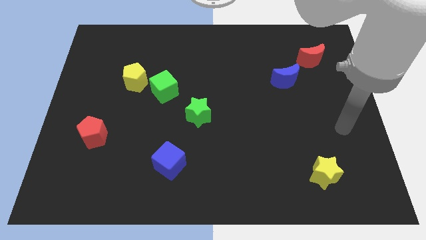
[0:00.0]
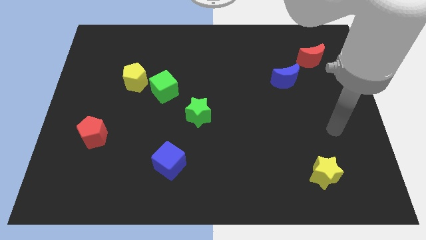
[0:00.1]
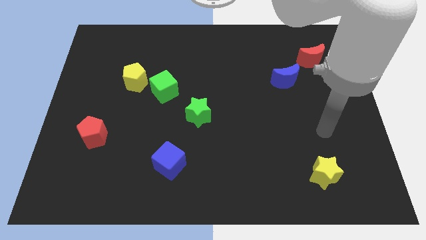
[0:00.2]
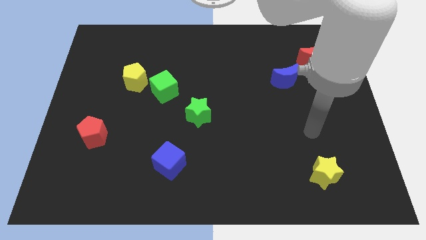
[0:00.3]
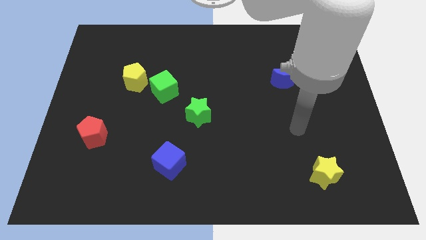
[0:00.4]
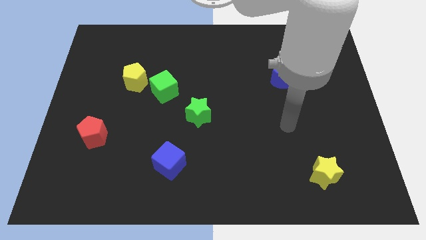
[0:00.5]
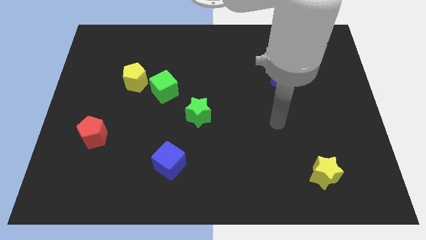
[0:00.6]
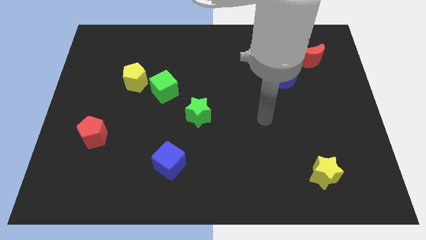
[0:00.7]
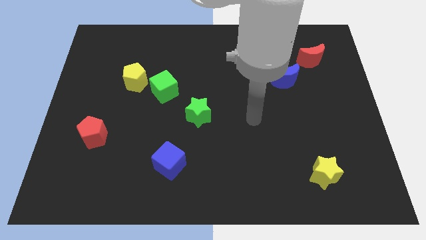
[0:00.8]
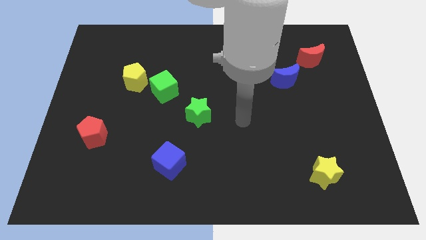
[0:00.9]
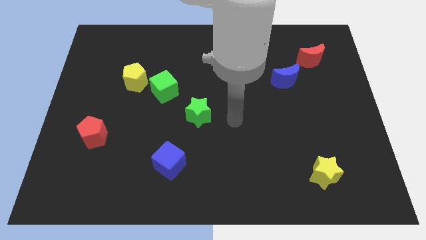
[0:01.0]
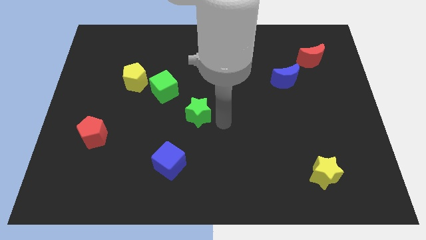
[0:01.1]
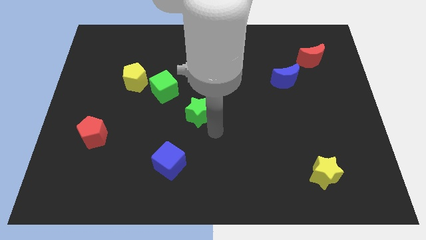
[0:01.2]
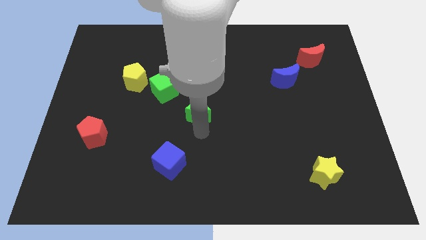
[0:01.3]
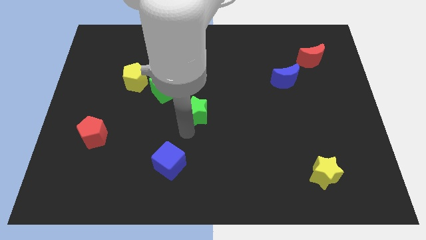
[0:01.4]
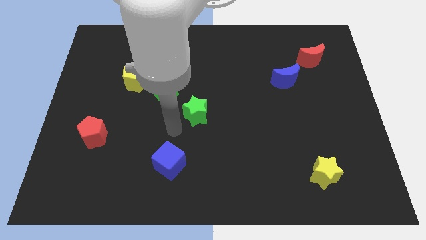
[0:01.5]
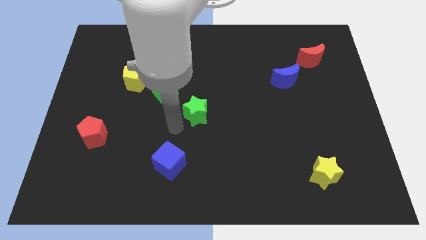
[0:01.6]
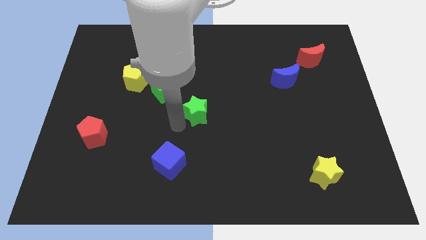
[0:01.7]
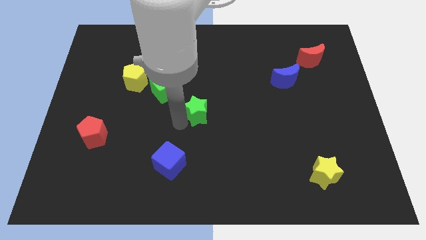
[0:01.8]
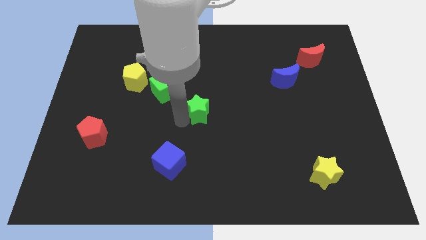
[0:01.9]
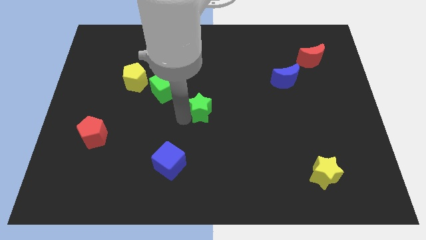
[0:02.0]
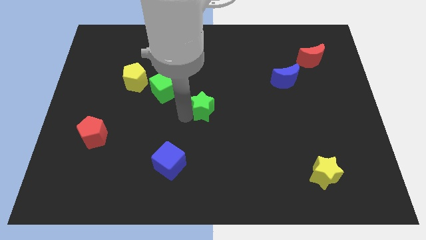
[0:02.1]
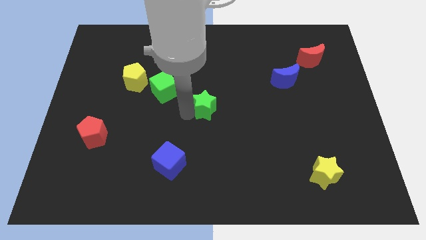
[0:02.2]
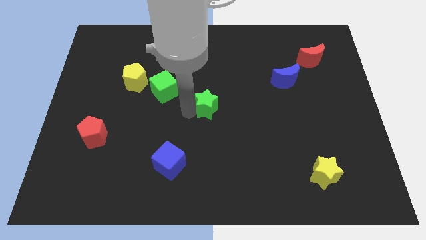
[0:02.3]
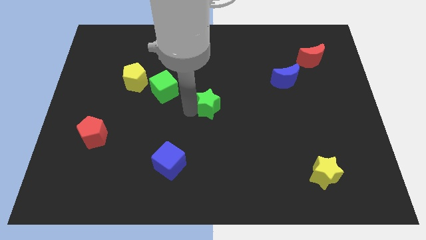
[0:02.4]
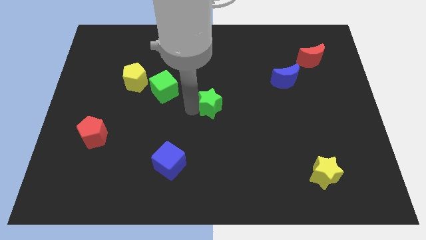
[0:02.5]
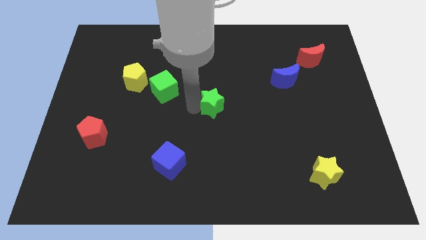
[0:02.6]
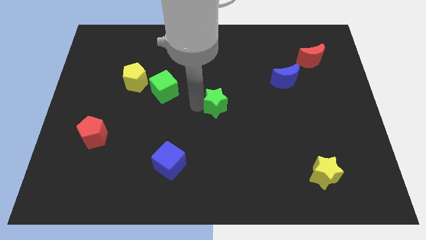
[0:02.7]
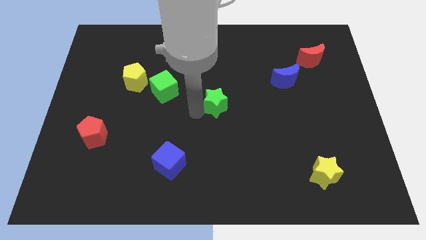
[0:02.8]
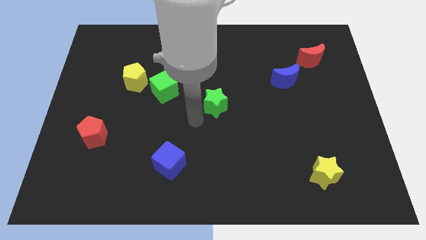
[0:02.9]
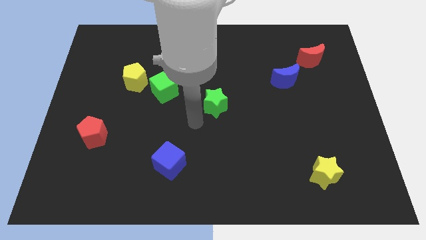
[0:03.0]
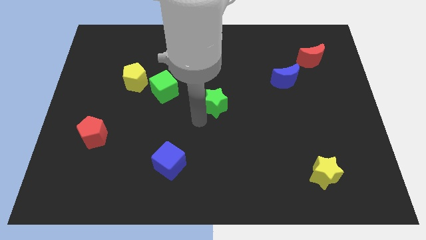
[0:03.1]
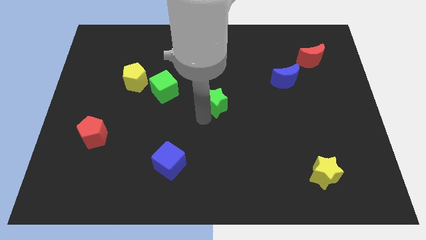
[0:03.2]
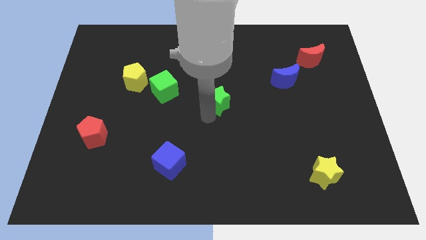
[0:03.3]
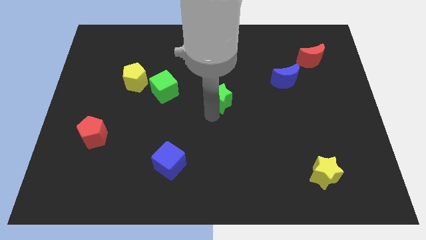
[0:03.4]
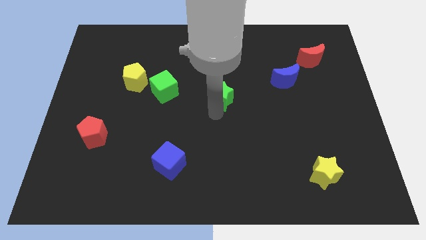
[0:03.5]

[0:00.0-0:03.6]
move the green star a little upwards and then right

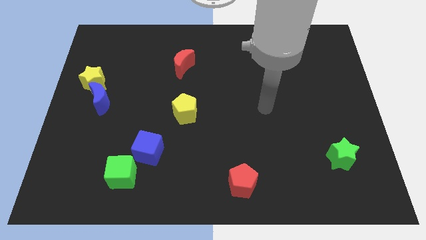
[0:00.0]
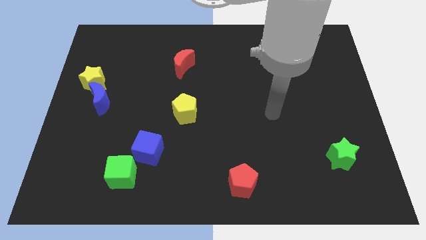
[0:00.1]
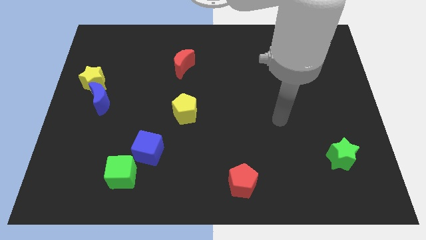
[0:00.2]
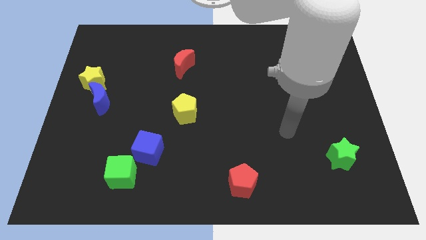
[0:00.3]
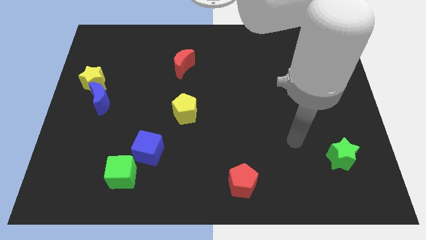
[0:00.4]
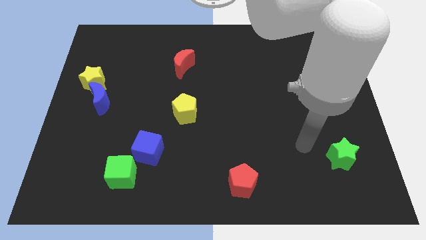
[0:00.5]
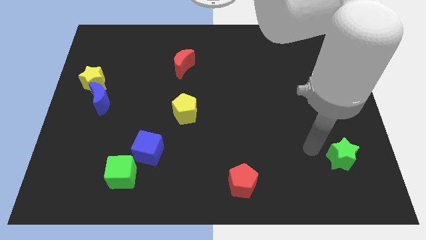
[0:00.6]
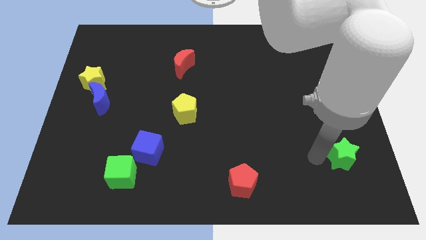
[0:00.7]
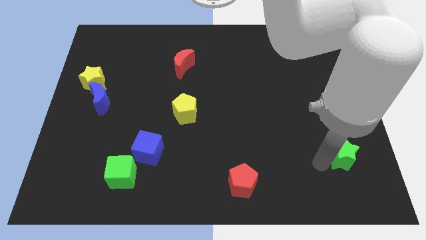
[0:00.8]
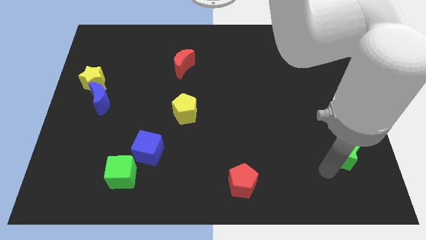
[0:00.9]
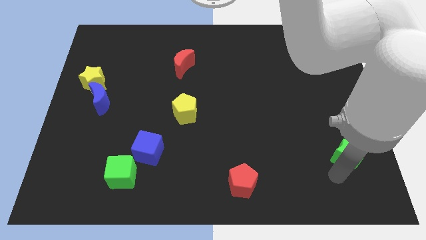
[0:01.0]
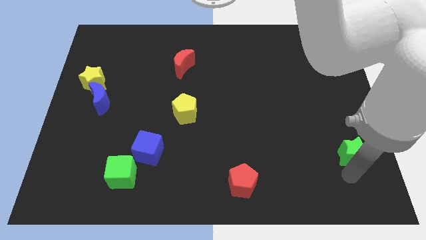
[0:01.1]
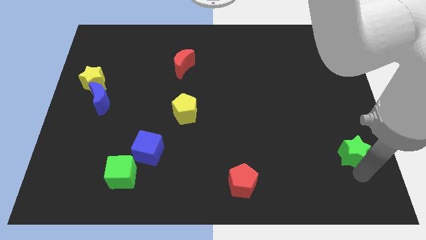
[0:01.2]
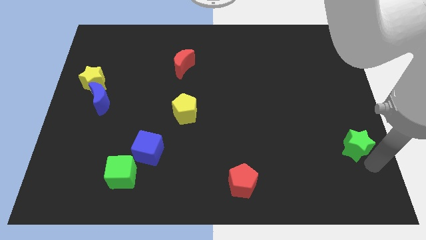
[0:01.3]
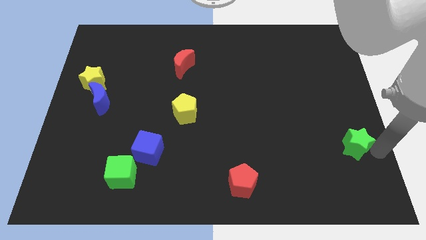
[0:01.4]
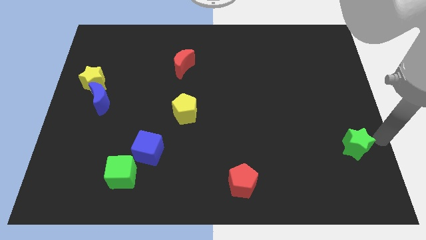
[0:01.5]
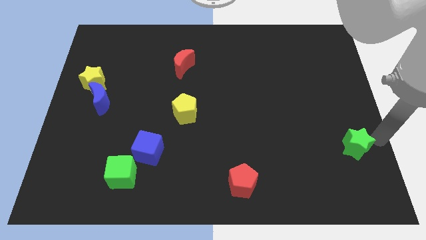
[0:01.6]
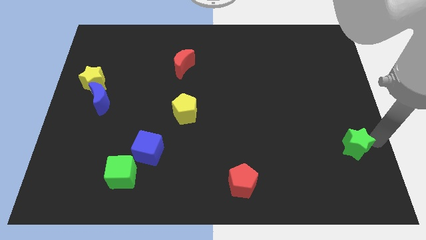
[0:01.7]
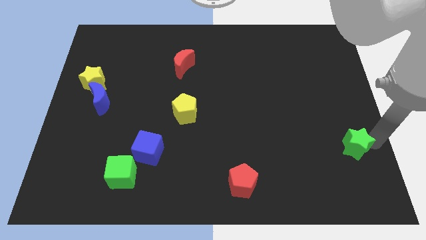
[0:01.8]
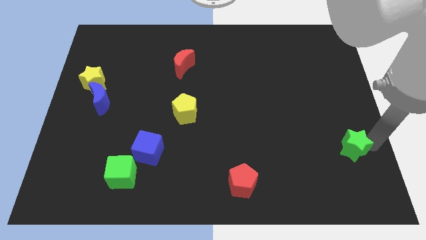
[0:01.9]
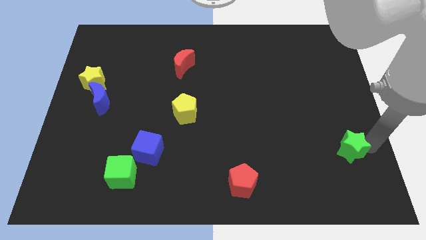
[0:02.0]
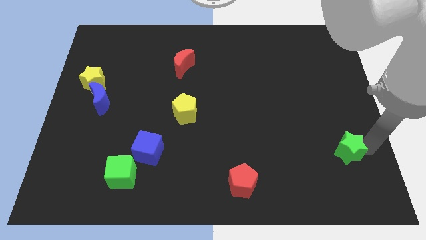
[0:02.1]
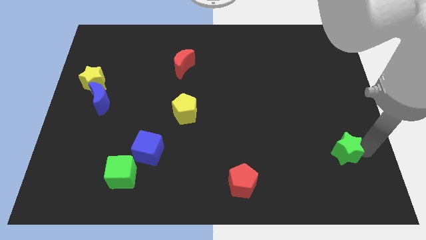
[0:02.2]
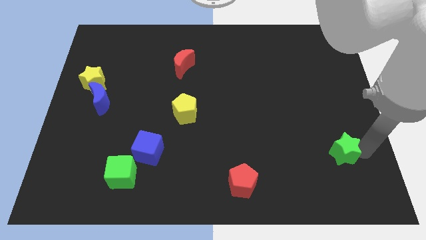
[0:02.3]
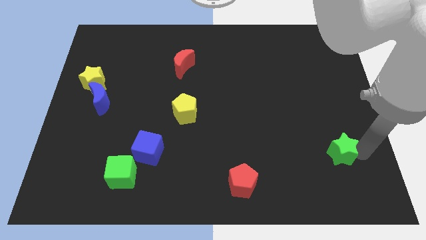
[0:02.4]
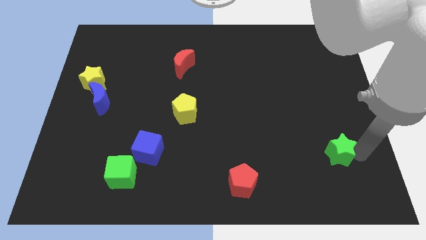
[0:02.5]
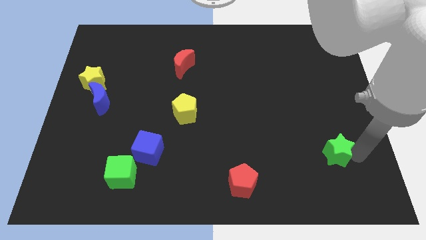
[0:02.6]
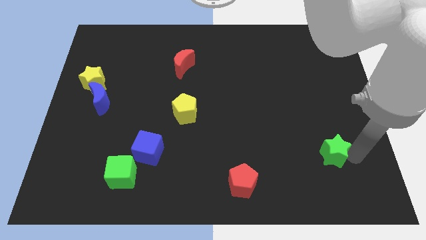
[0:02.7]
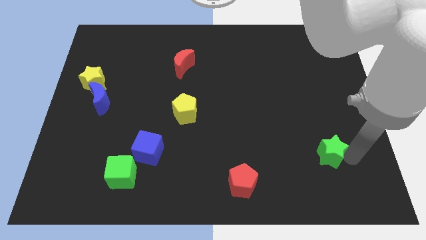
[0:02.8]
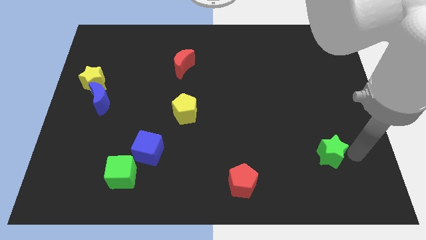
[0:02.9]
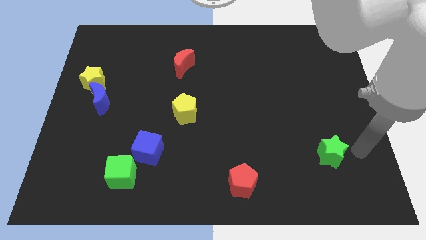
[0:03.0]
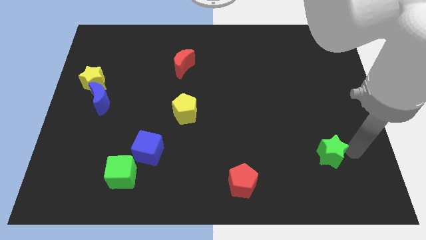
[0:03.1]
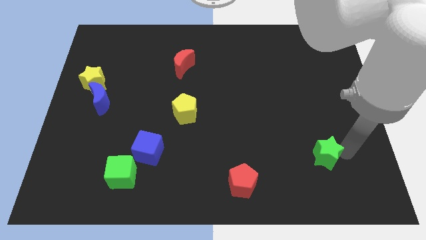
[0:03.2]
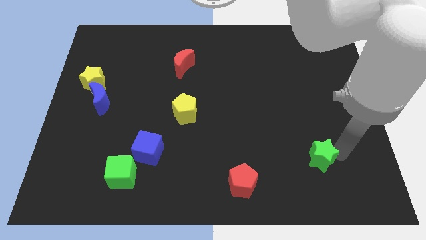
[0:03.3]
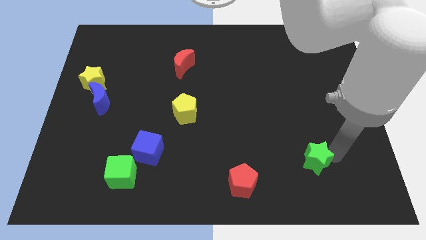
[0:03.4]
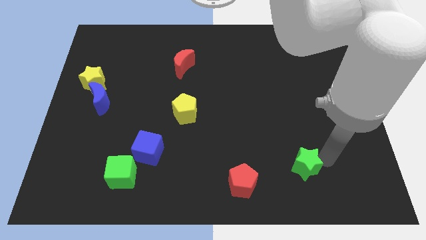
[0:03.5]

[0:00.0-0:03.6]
move the green star left a little bit

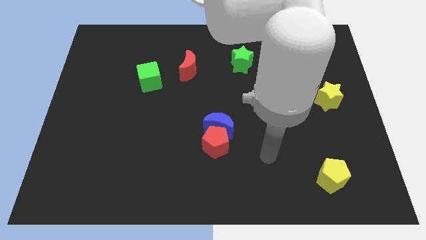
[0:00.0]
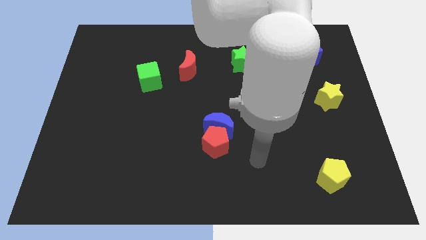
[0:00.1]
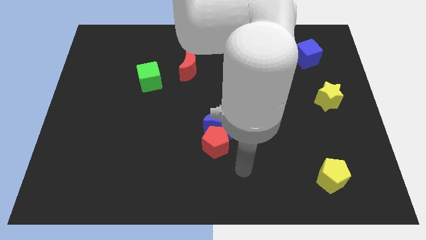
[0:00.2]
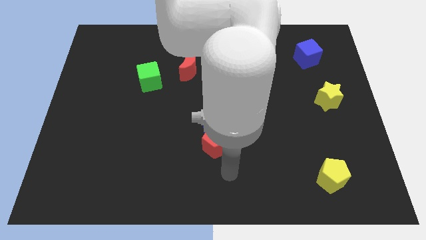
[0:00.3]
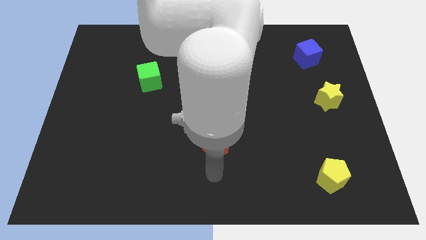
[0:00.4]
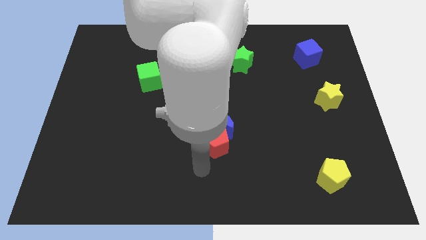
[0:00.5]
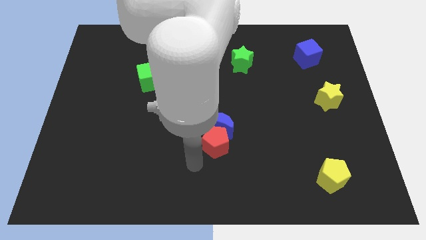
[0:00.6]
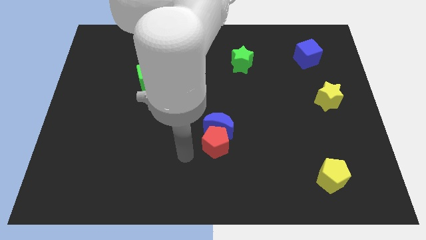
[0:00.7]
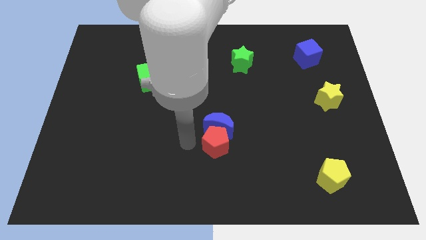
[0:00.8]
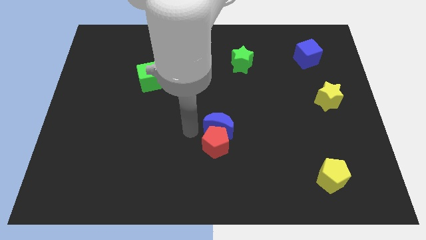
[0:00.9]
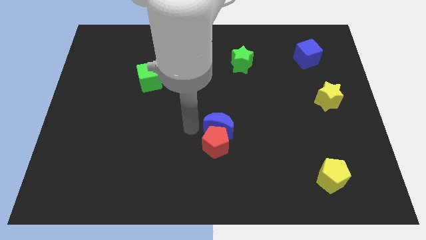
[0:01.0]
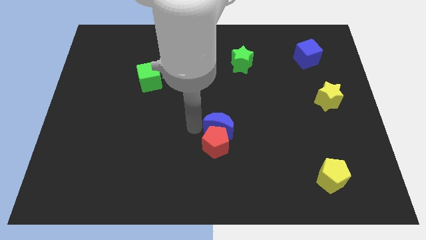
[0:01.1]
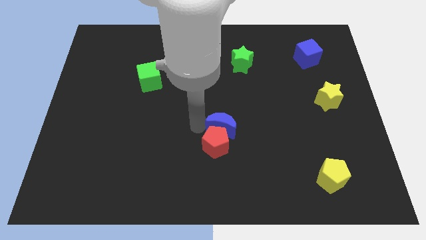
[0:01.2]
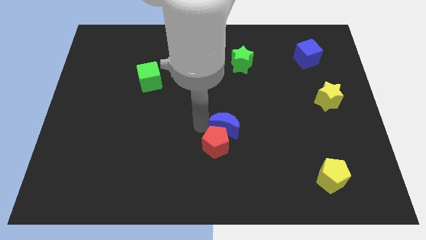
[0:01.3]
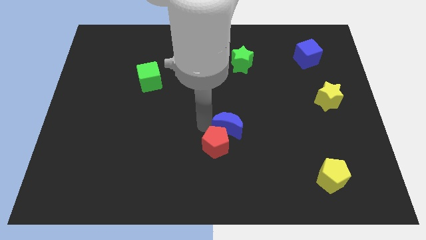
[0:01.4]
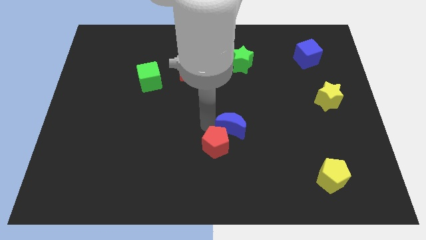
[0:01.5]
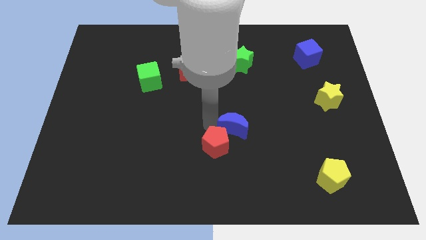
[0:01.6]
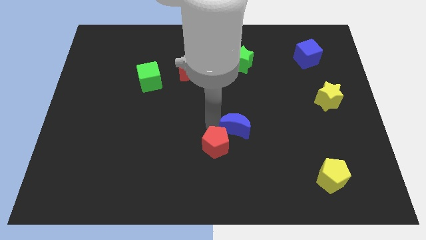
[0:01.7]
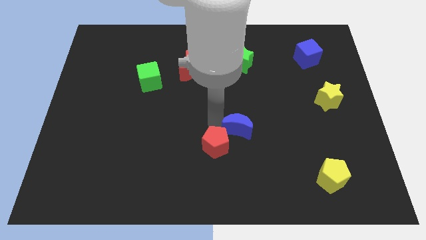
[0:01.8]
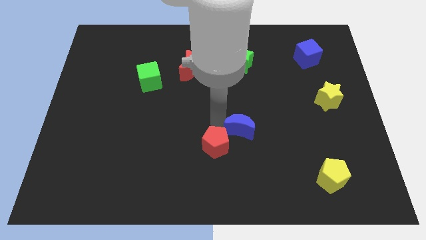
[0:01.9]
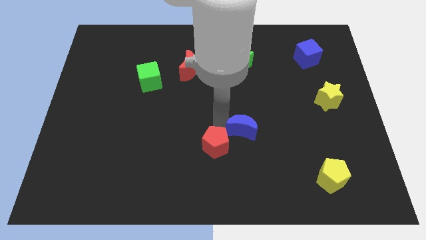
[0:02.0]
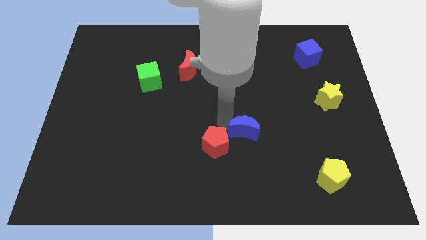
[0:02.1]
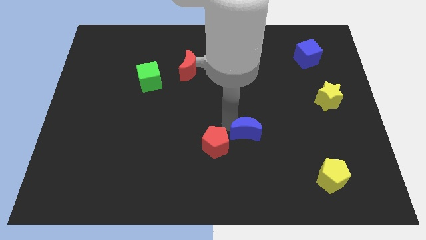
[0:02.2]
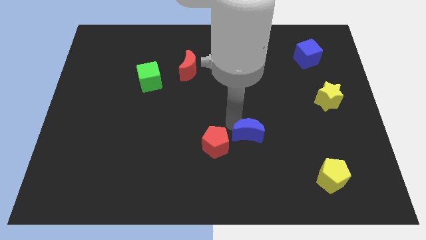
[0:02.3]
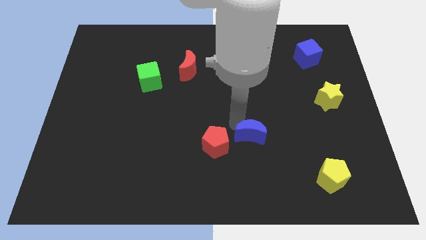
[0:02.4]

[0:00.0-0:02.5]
move the blue moon a little bit to the right
